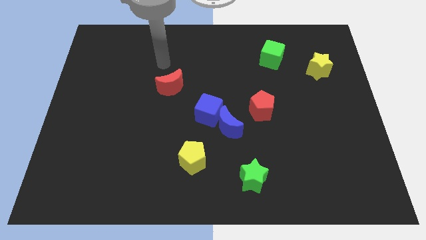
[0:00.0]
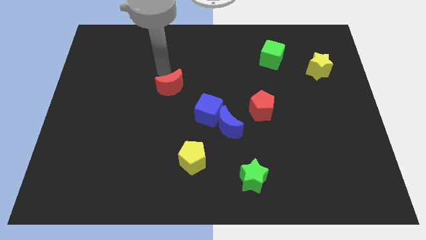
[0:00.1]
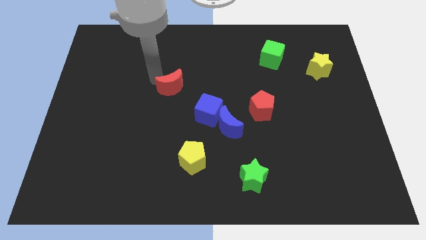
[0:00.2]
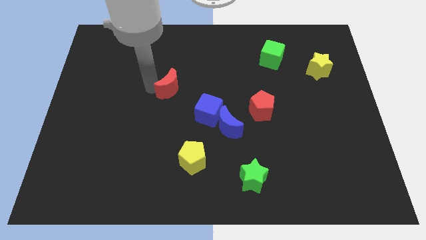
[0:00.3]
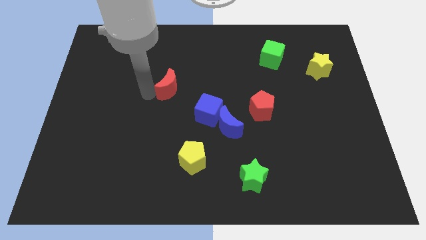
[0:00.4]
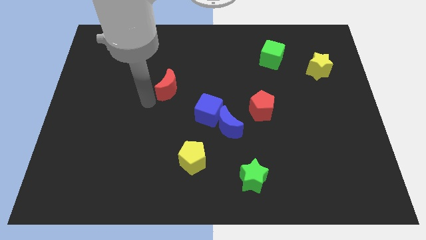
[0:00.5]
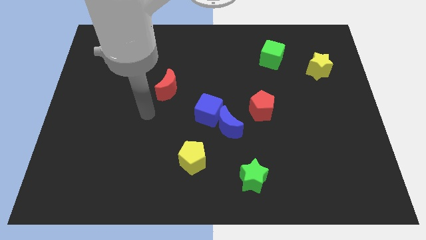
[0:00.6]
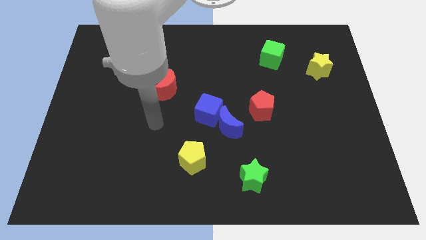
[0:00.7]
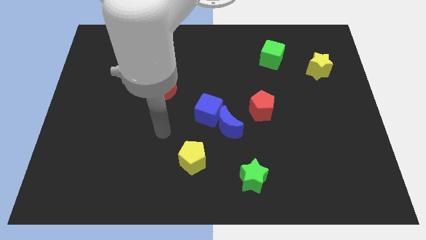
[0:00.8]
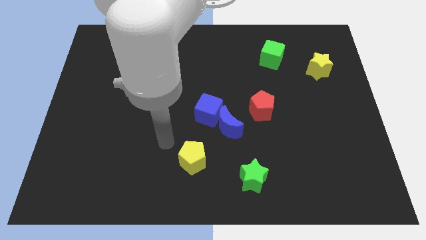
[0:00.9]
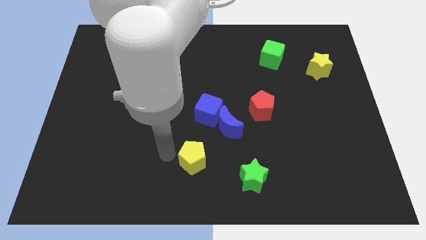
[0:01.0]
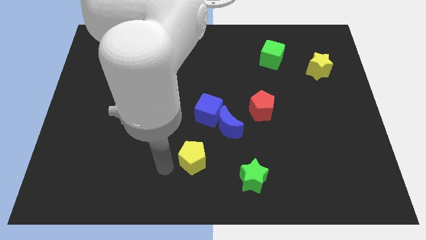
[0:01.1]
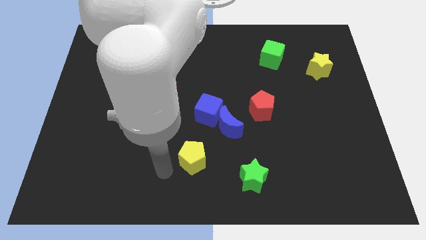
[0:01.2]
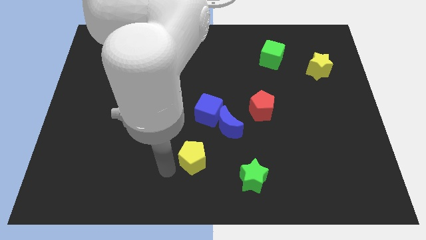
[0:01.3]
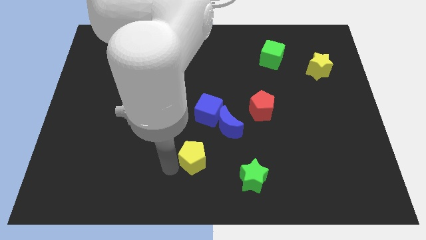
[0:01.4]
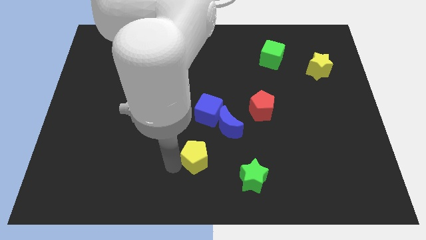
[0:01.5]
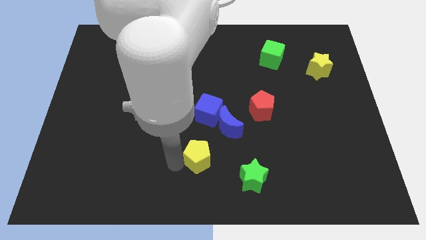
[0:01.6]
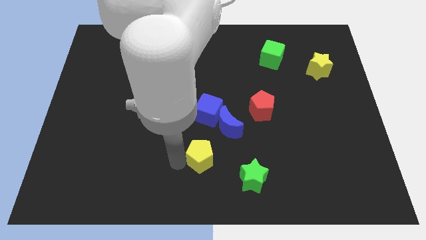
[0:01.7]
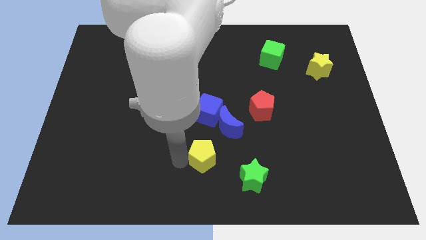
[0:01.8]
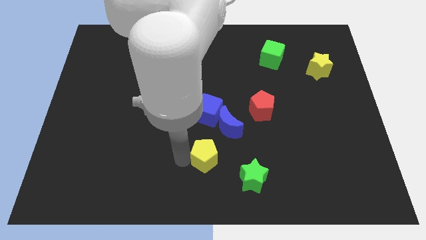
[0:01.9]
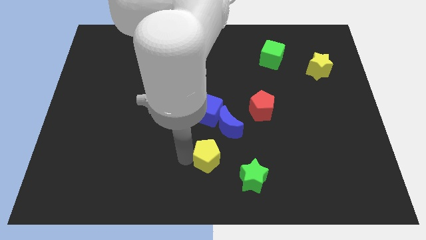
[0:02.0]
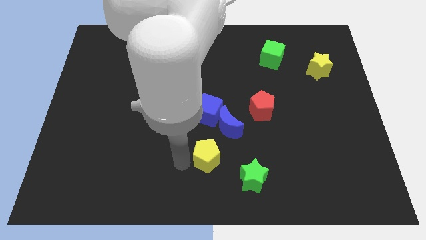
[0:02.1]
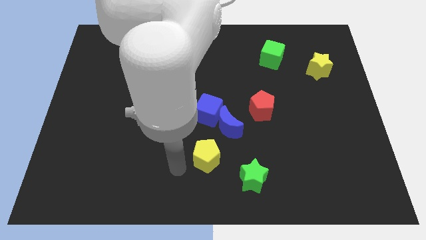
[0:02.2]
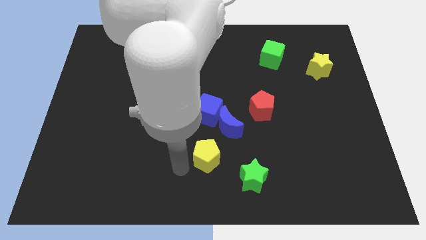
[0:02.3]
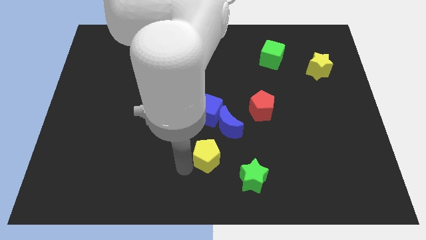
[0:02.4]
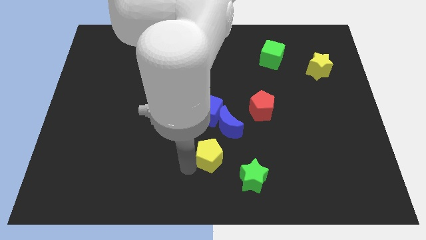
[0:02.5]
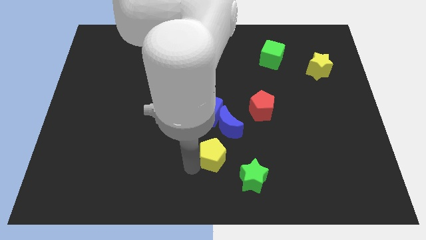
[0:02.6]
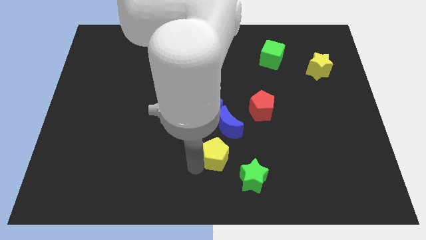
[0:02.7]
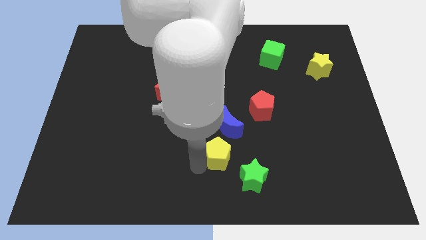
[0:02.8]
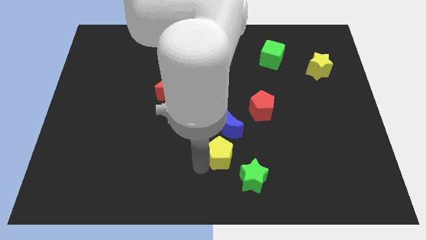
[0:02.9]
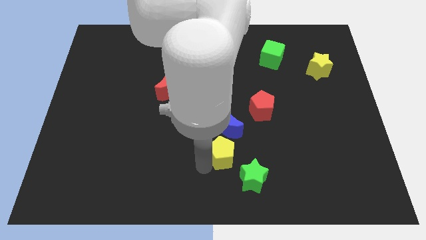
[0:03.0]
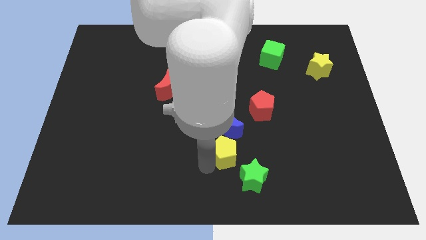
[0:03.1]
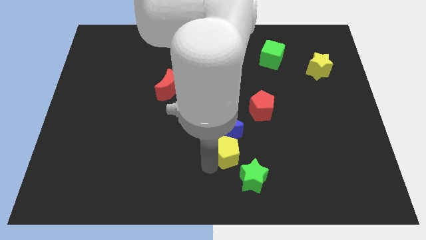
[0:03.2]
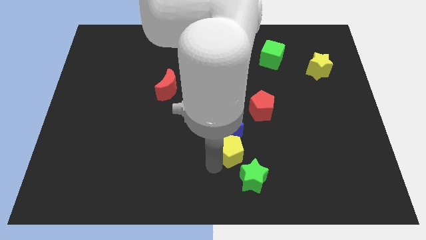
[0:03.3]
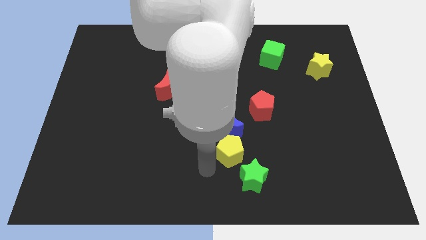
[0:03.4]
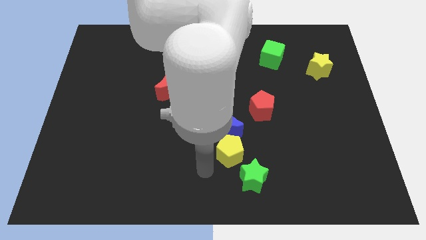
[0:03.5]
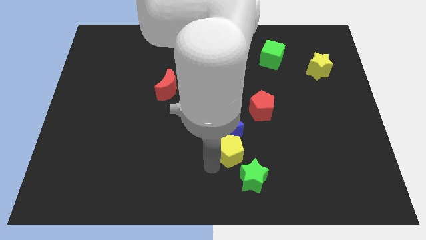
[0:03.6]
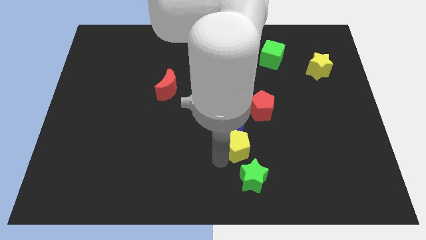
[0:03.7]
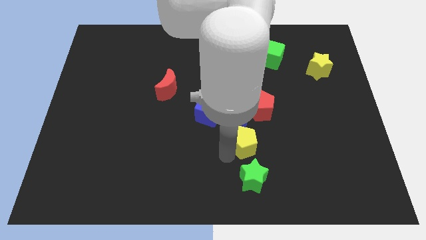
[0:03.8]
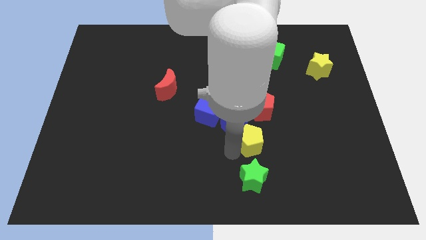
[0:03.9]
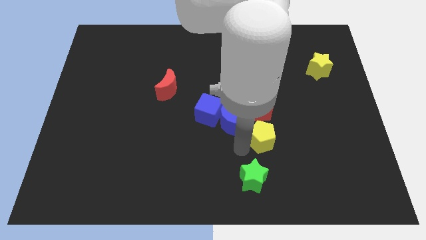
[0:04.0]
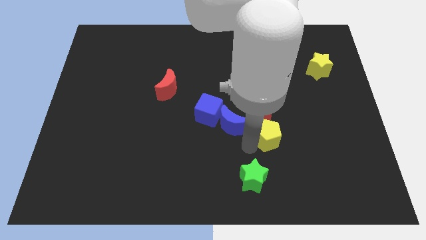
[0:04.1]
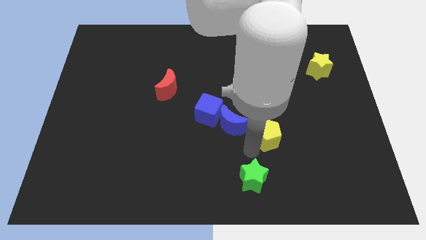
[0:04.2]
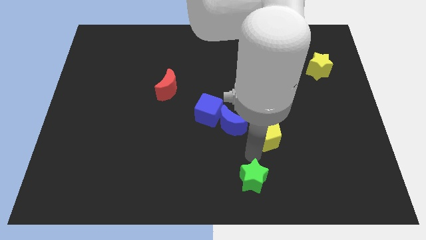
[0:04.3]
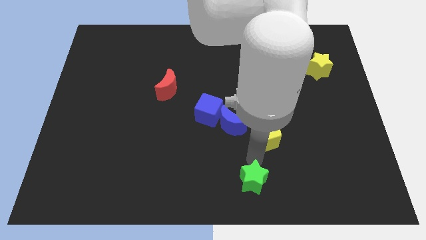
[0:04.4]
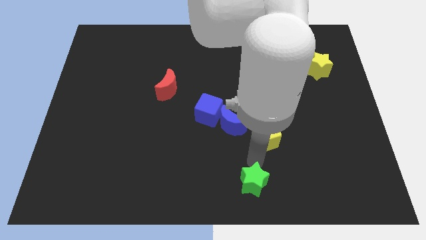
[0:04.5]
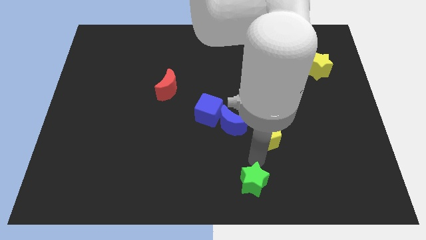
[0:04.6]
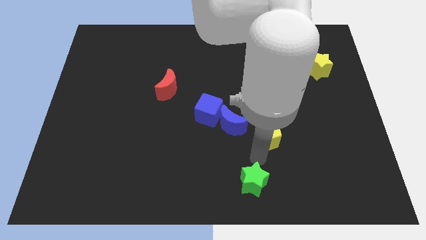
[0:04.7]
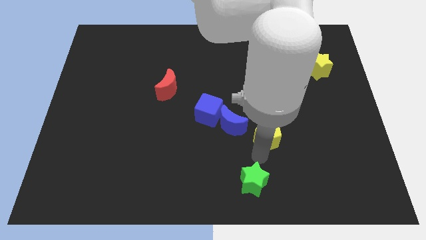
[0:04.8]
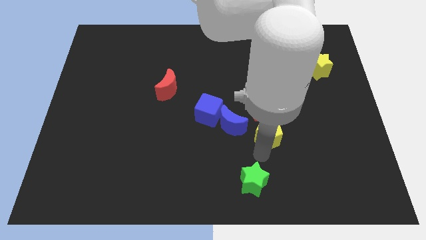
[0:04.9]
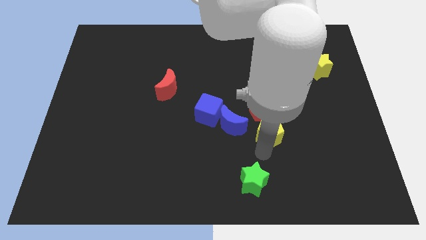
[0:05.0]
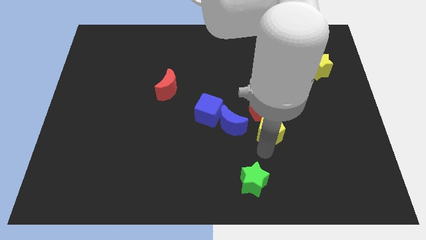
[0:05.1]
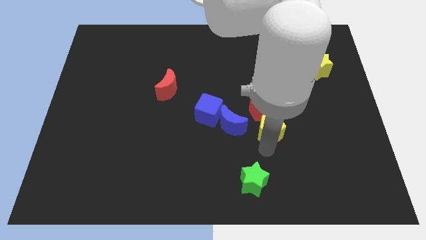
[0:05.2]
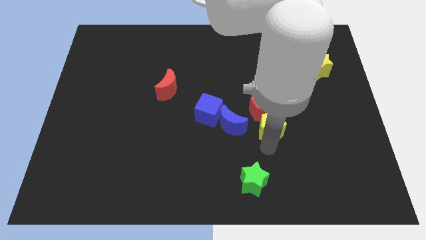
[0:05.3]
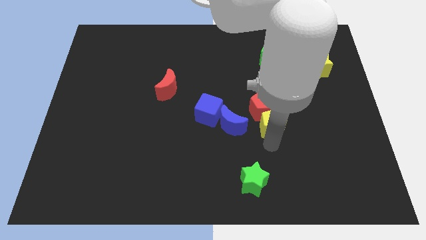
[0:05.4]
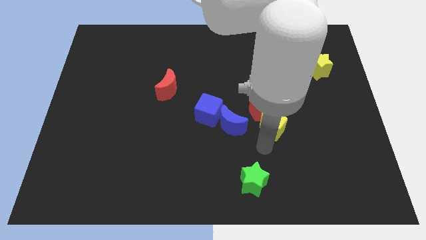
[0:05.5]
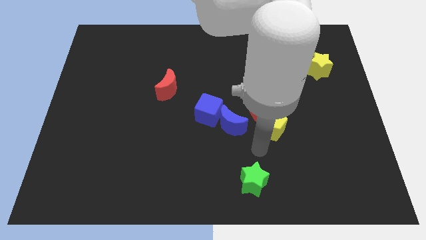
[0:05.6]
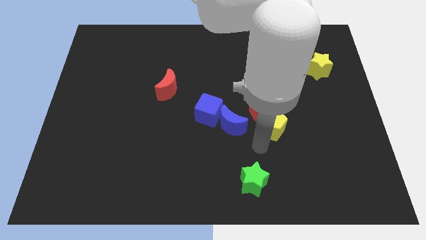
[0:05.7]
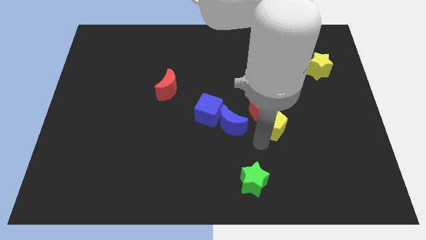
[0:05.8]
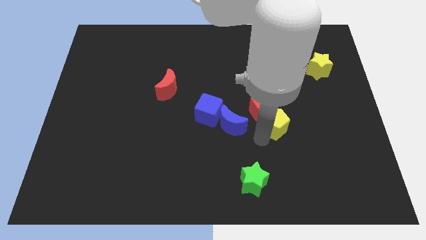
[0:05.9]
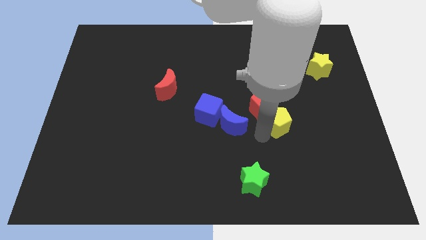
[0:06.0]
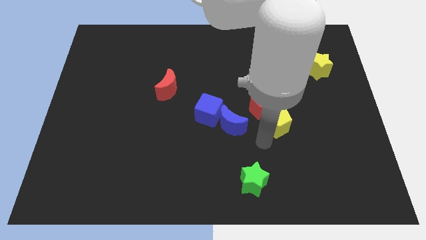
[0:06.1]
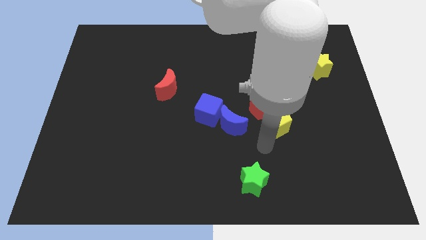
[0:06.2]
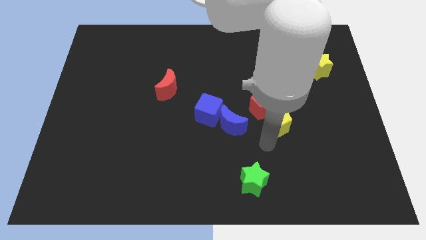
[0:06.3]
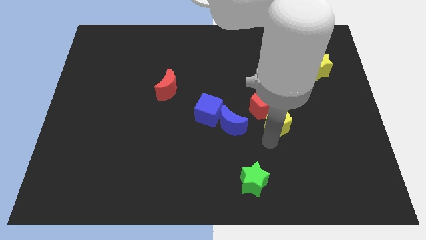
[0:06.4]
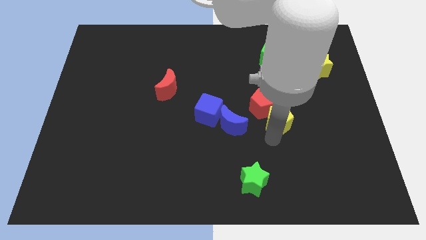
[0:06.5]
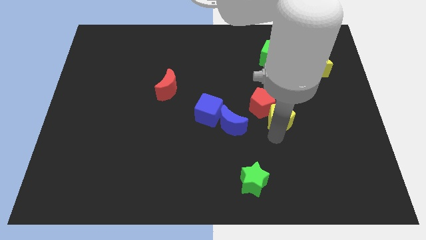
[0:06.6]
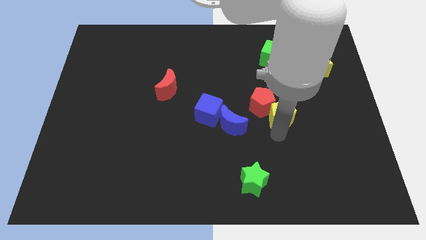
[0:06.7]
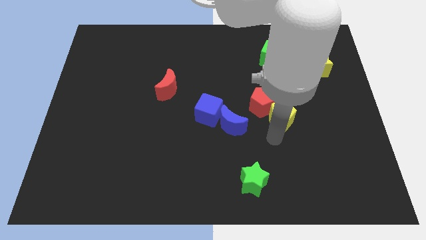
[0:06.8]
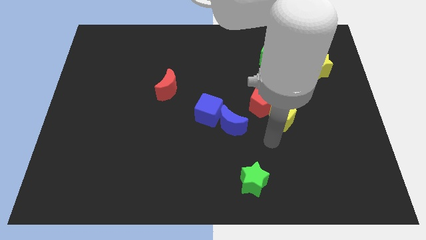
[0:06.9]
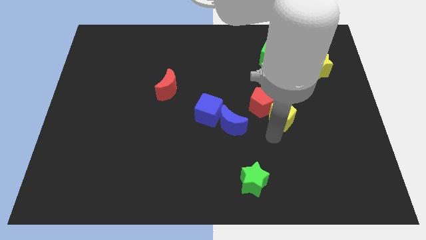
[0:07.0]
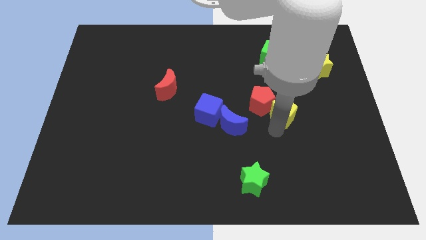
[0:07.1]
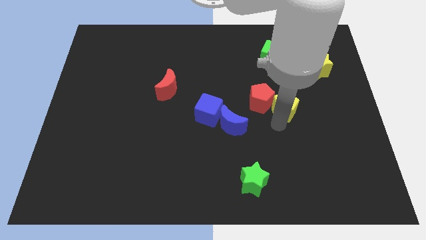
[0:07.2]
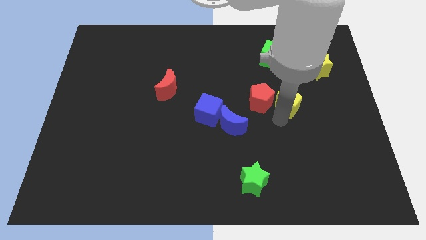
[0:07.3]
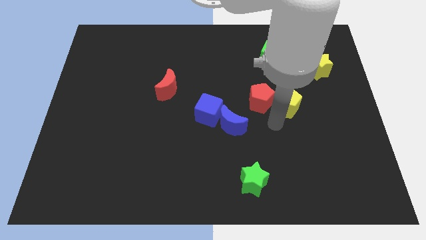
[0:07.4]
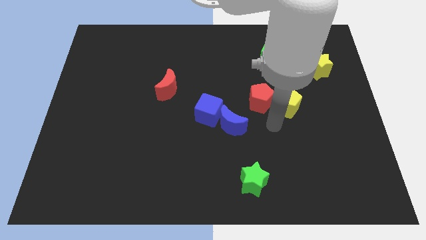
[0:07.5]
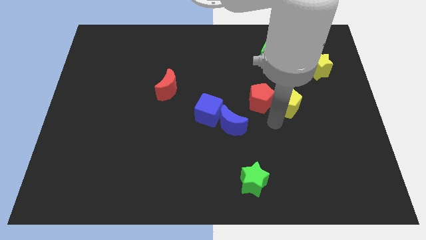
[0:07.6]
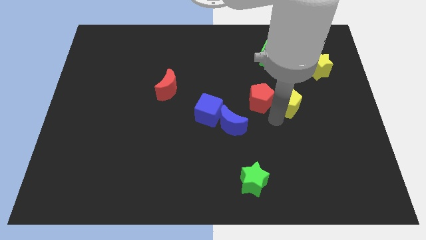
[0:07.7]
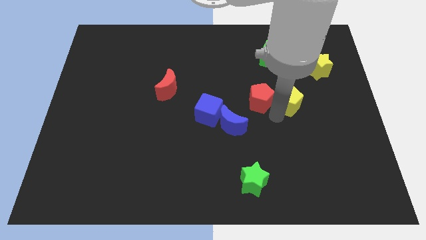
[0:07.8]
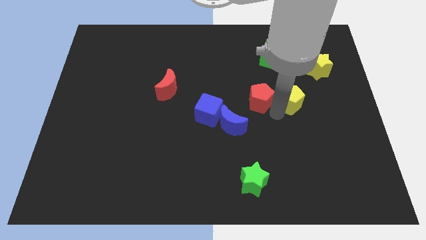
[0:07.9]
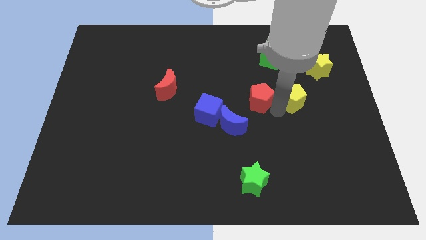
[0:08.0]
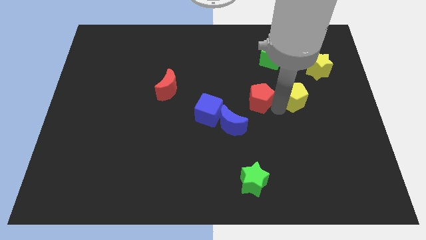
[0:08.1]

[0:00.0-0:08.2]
slide the yellow pentagon to the bottom left of the yellow star
